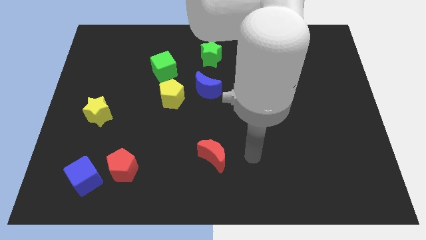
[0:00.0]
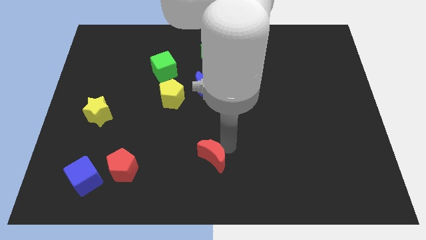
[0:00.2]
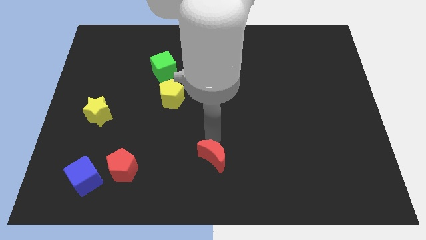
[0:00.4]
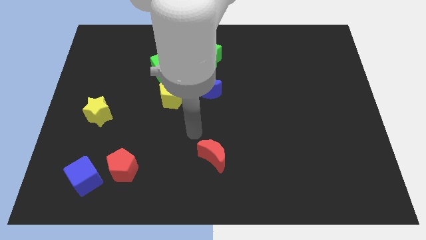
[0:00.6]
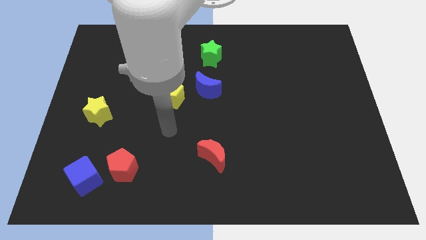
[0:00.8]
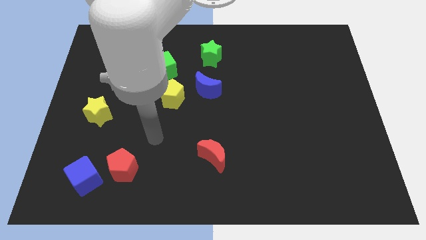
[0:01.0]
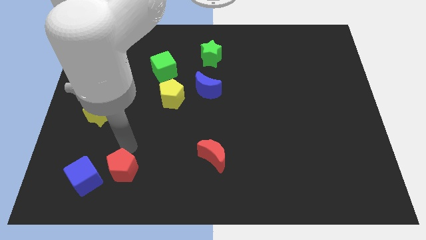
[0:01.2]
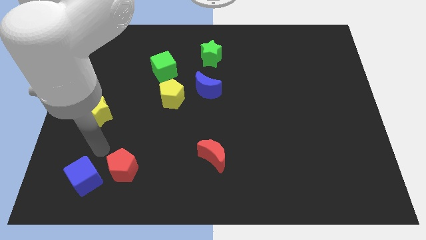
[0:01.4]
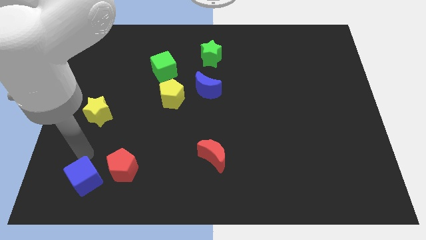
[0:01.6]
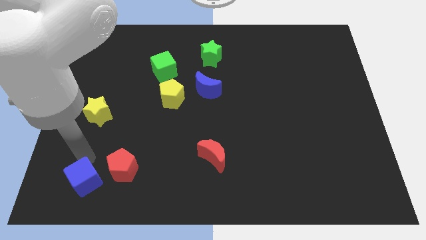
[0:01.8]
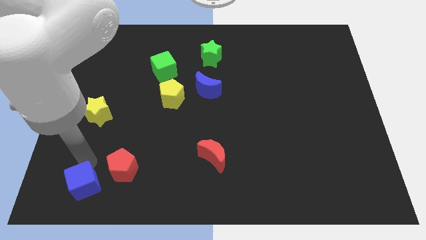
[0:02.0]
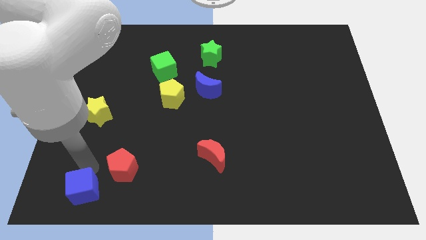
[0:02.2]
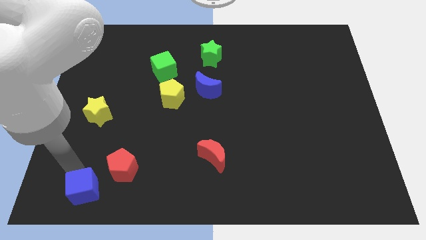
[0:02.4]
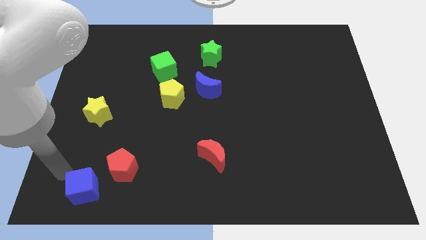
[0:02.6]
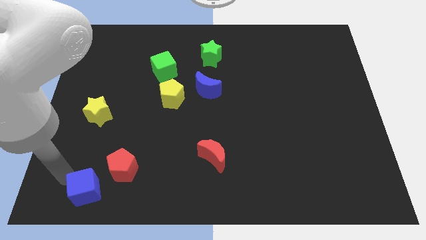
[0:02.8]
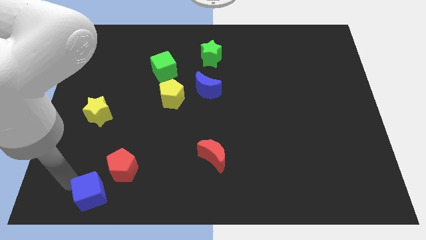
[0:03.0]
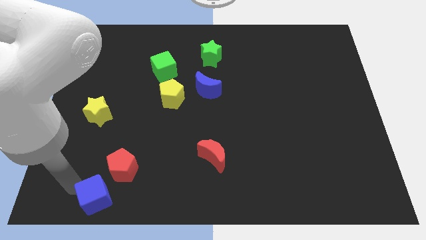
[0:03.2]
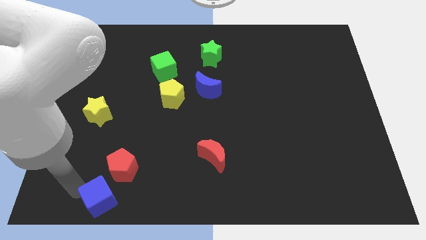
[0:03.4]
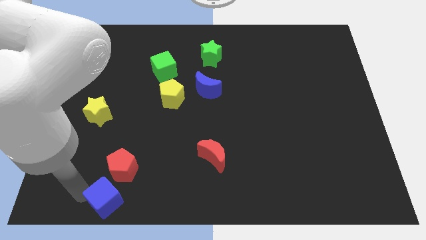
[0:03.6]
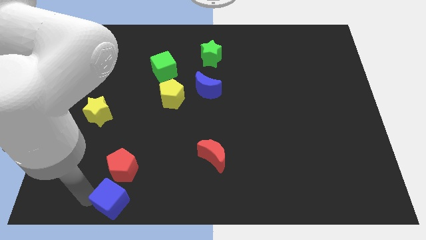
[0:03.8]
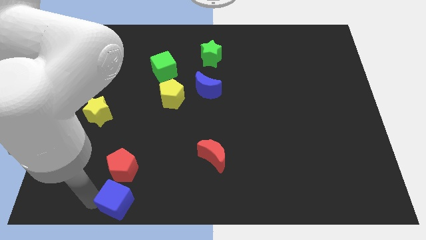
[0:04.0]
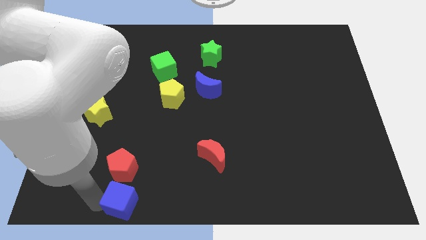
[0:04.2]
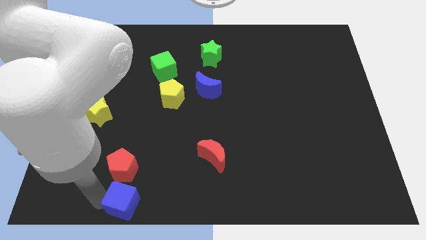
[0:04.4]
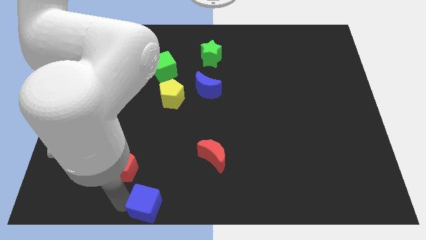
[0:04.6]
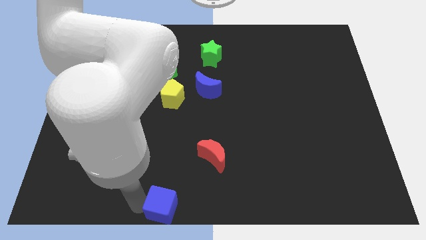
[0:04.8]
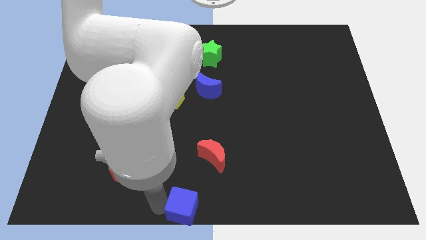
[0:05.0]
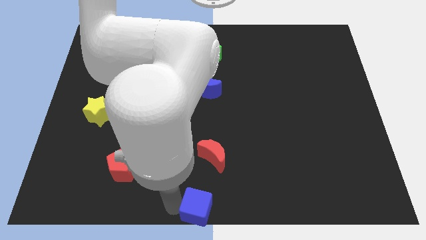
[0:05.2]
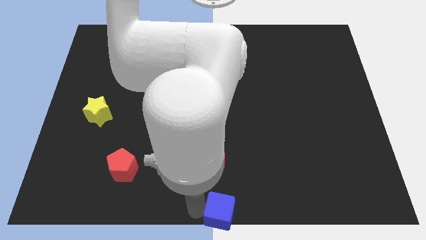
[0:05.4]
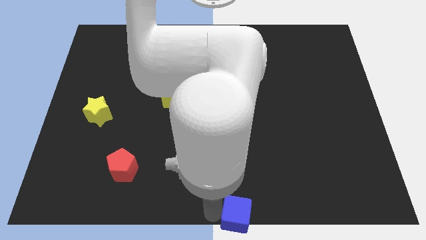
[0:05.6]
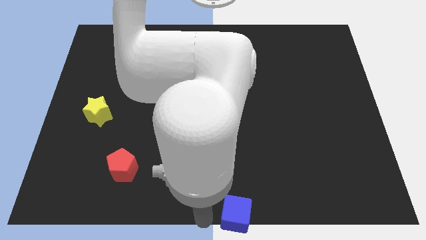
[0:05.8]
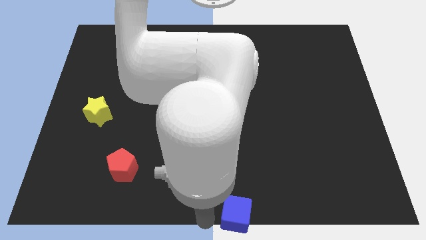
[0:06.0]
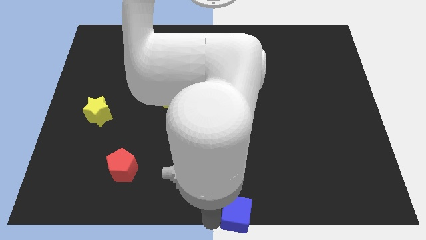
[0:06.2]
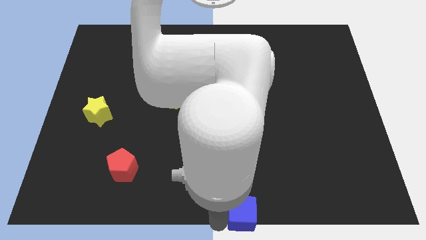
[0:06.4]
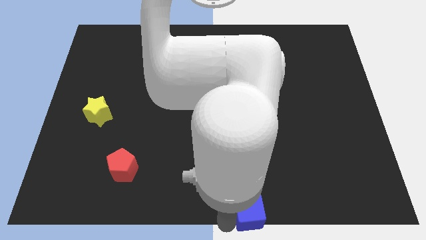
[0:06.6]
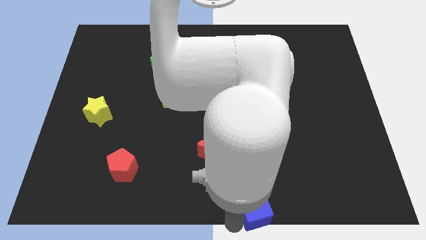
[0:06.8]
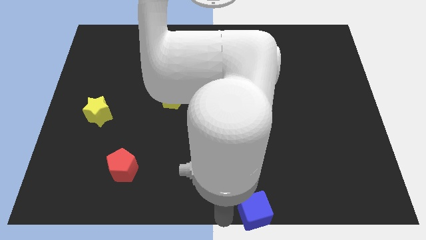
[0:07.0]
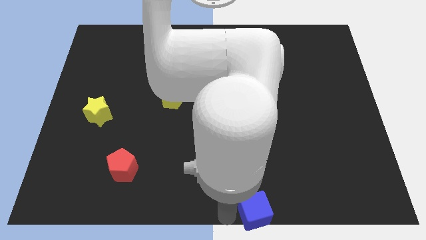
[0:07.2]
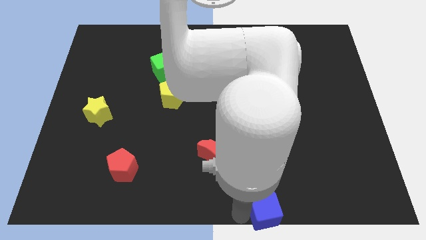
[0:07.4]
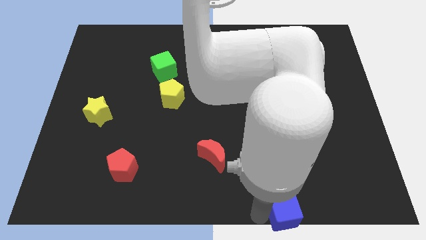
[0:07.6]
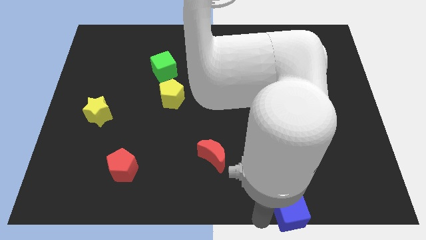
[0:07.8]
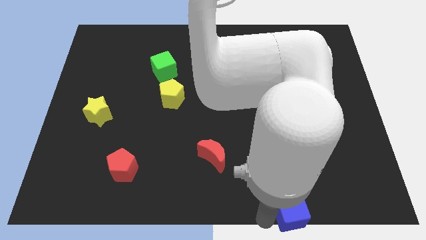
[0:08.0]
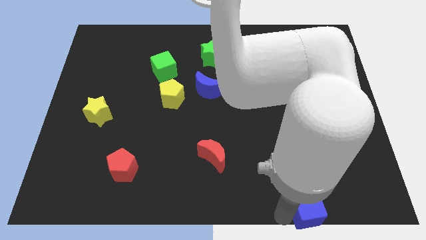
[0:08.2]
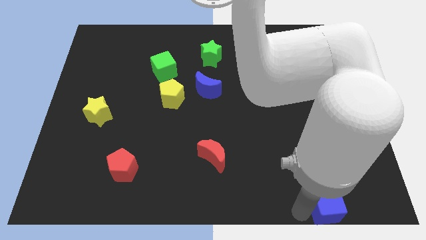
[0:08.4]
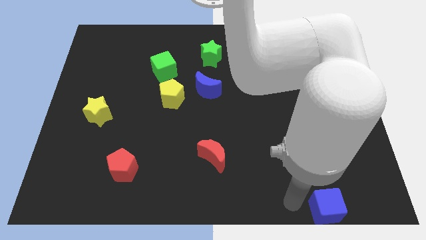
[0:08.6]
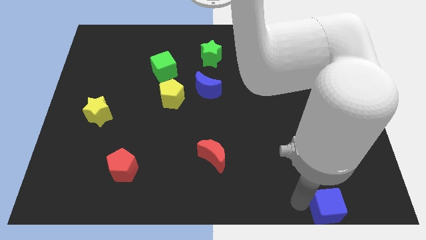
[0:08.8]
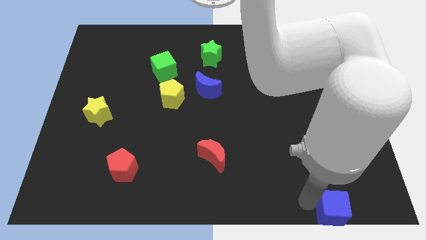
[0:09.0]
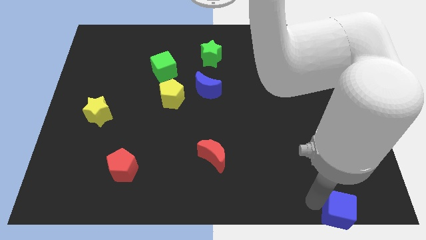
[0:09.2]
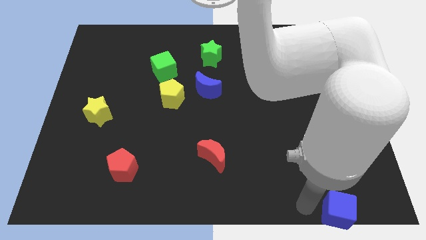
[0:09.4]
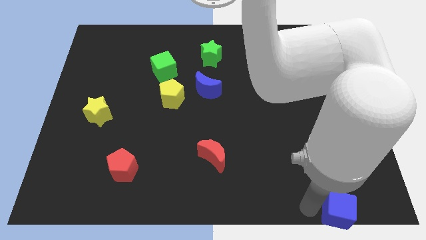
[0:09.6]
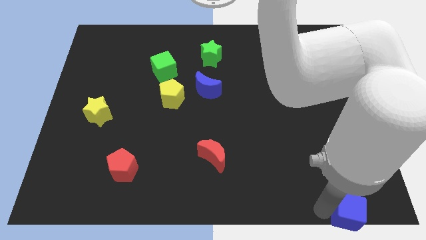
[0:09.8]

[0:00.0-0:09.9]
push the blue cube to the bottom right corner

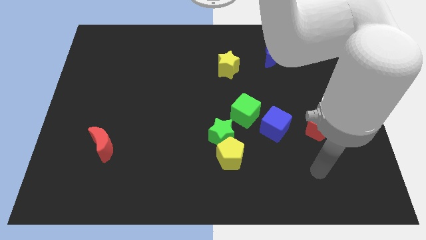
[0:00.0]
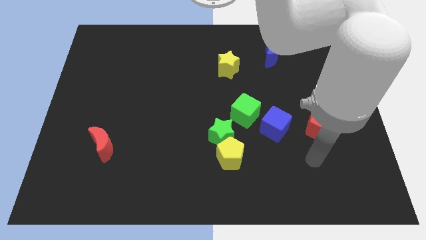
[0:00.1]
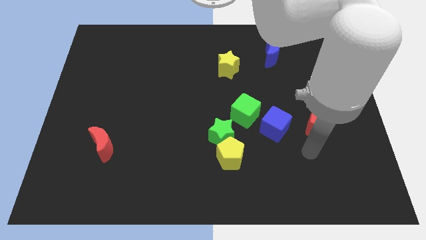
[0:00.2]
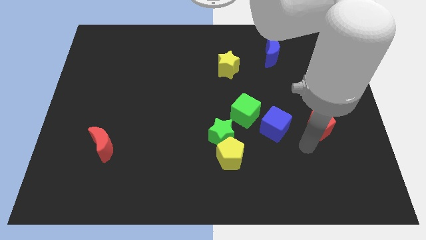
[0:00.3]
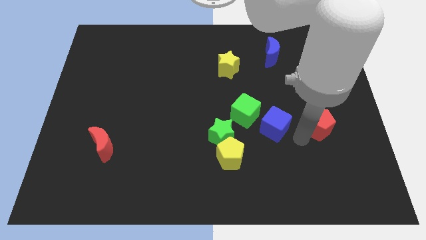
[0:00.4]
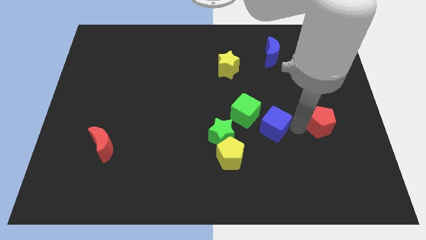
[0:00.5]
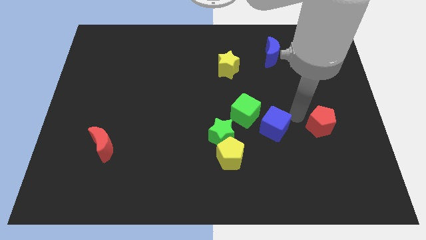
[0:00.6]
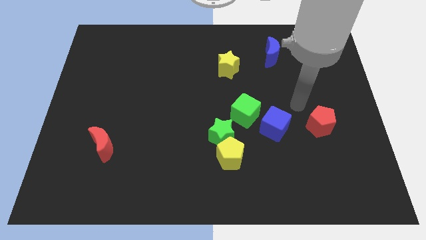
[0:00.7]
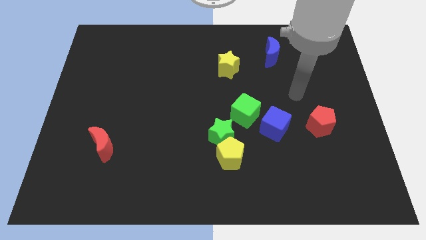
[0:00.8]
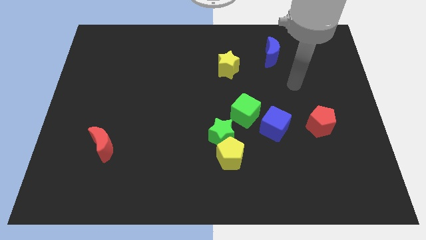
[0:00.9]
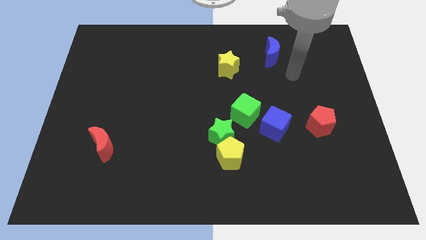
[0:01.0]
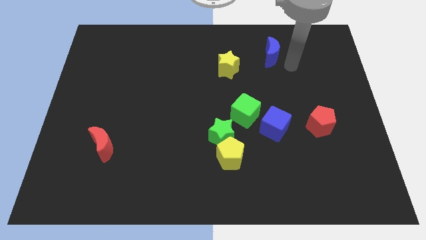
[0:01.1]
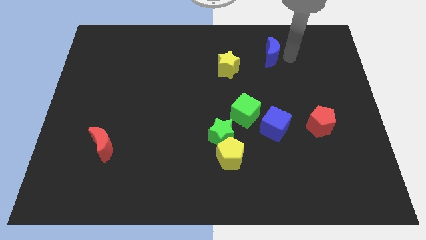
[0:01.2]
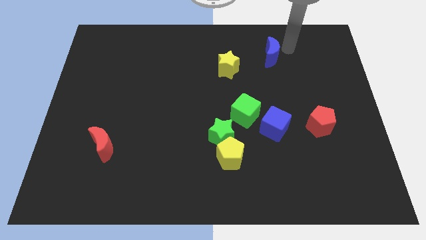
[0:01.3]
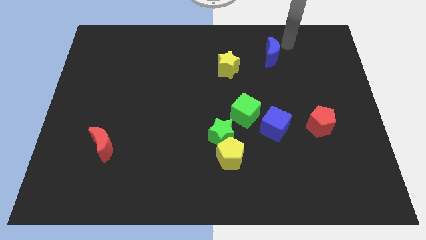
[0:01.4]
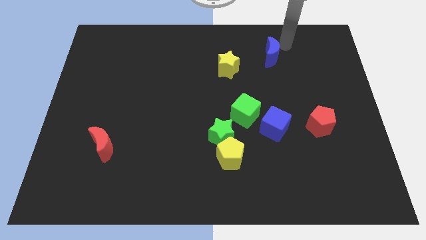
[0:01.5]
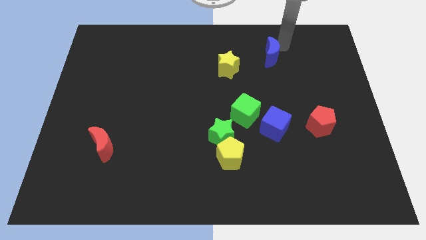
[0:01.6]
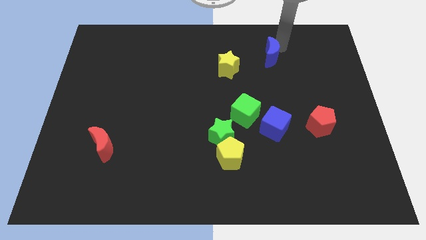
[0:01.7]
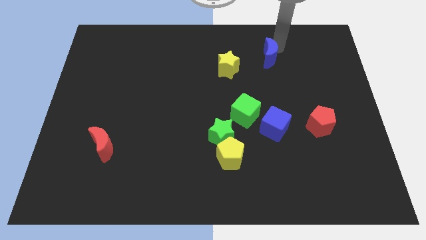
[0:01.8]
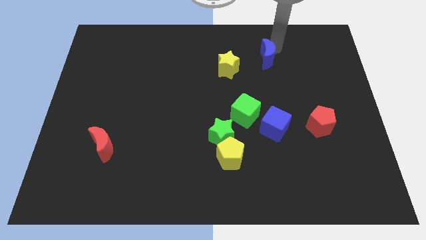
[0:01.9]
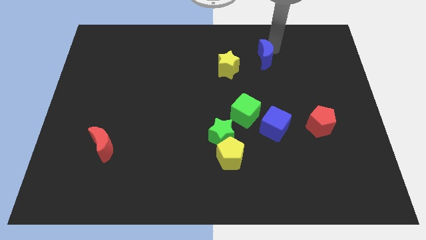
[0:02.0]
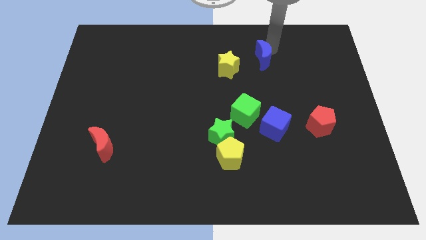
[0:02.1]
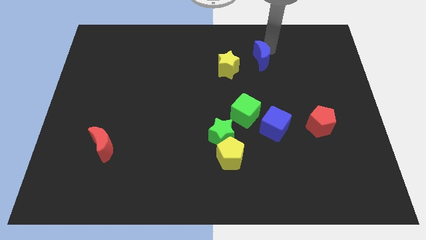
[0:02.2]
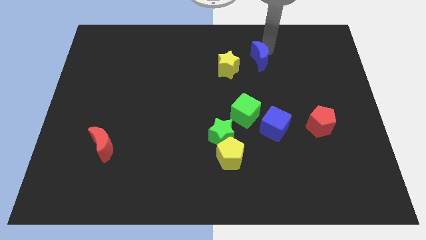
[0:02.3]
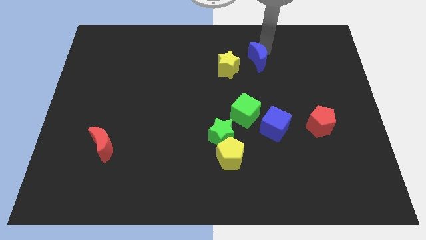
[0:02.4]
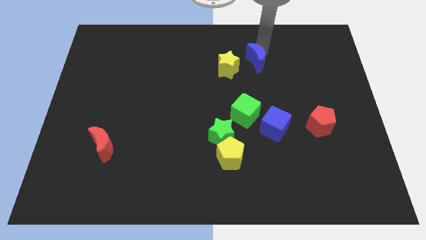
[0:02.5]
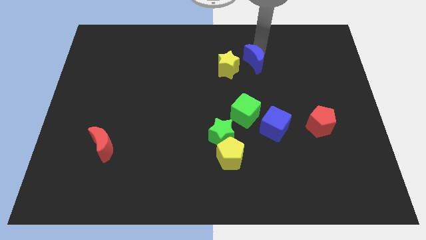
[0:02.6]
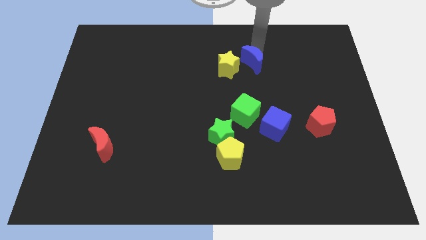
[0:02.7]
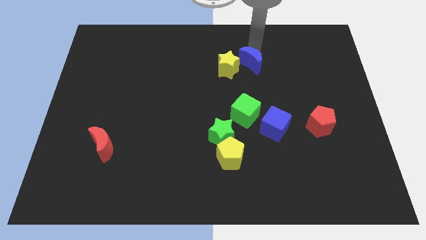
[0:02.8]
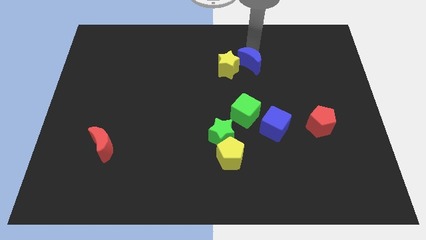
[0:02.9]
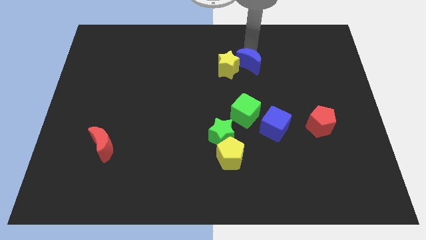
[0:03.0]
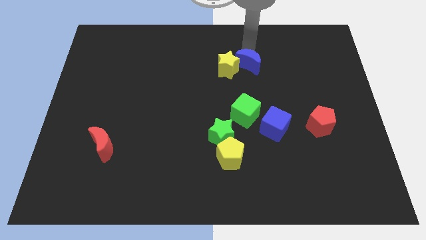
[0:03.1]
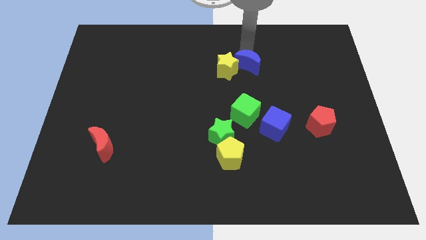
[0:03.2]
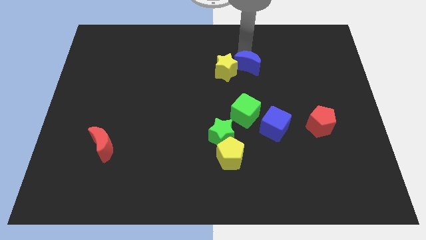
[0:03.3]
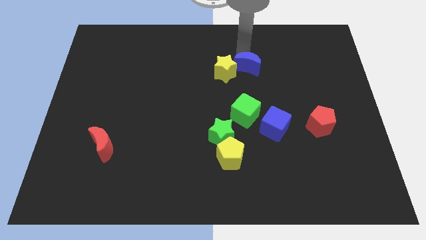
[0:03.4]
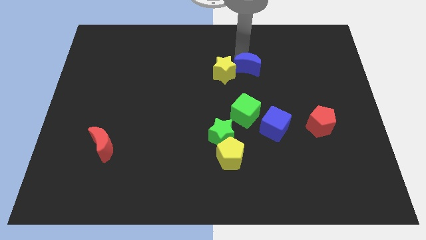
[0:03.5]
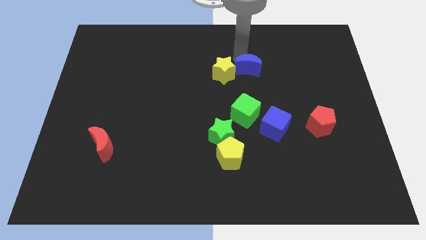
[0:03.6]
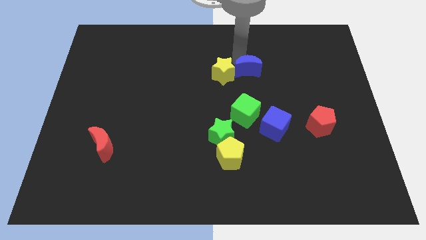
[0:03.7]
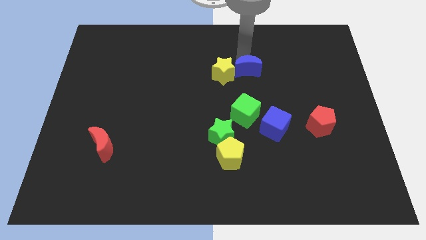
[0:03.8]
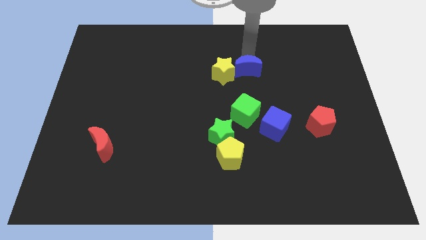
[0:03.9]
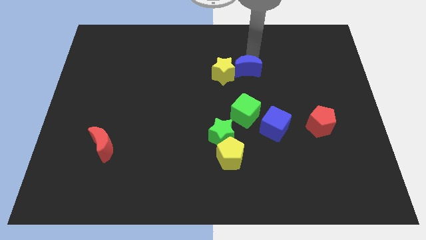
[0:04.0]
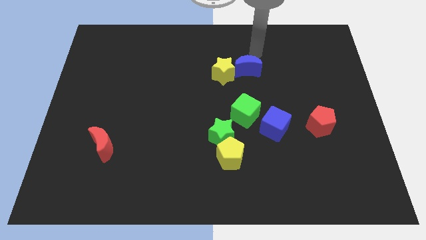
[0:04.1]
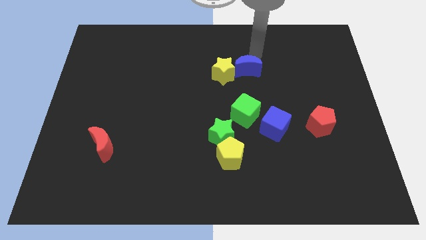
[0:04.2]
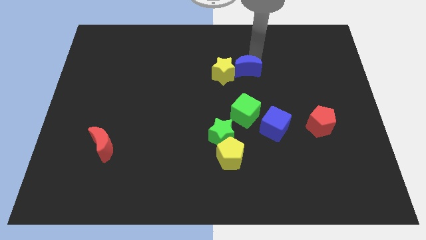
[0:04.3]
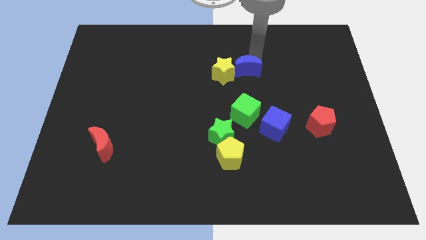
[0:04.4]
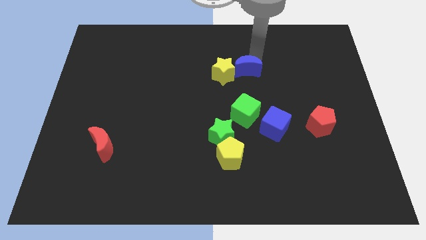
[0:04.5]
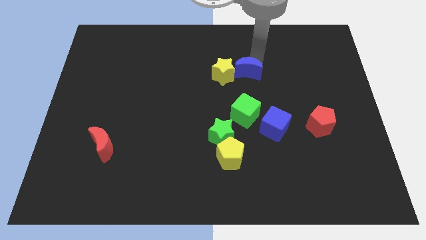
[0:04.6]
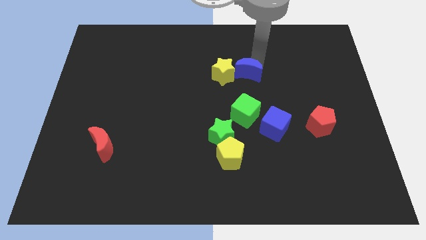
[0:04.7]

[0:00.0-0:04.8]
push the blue moon to the center
